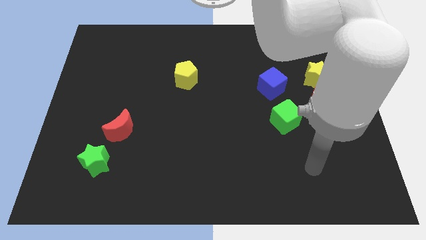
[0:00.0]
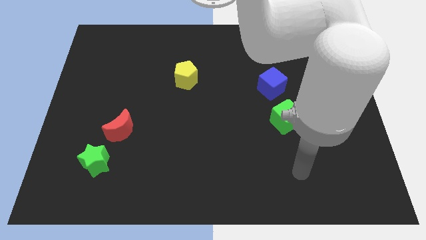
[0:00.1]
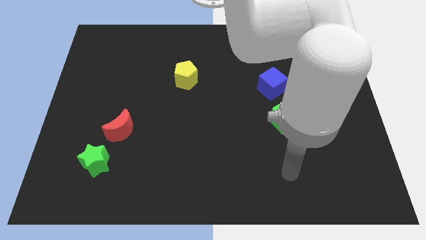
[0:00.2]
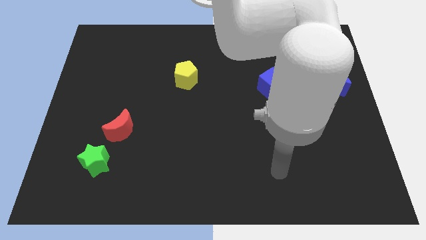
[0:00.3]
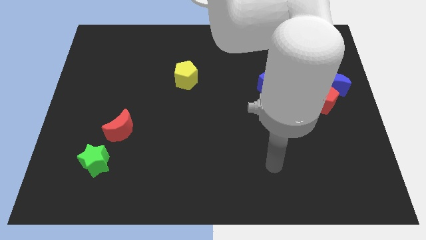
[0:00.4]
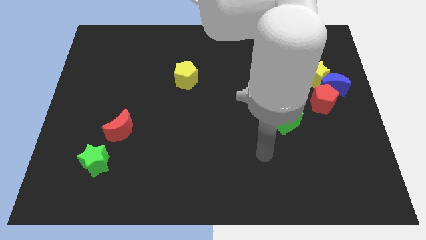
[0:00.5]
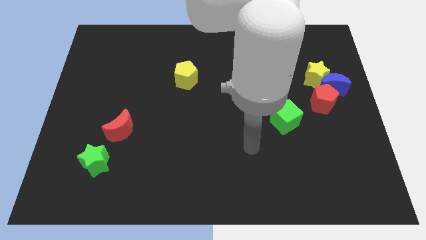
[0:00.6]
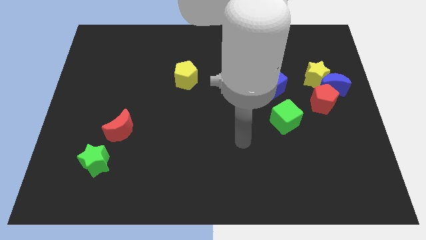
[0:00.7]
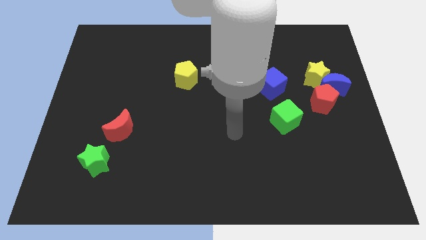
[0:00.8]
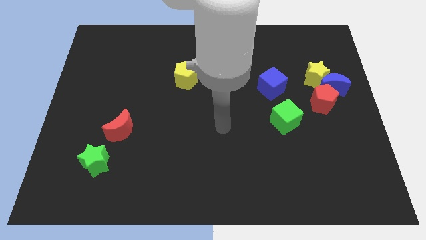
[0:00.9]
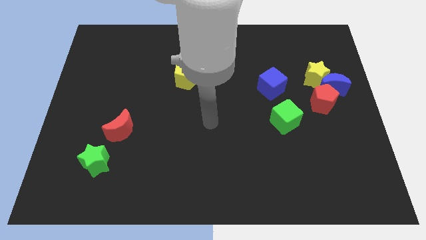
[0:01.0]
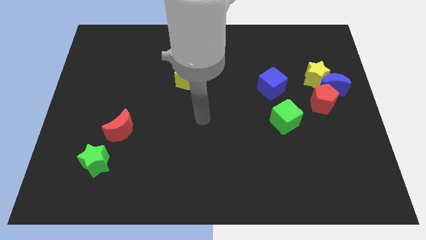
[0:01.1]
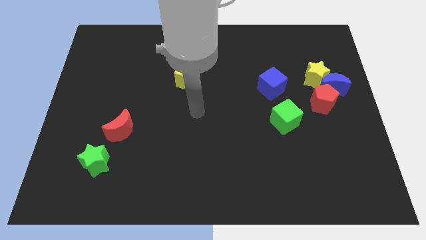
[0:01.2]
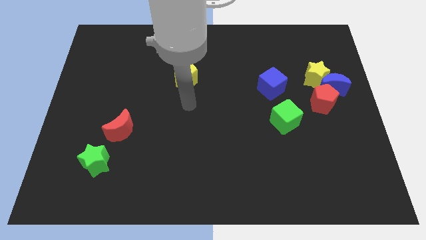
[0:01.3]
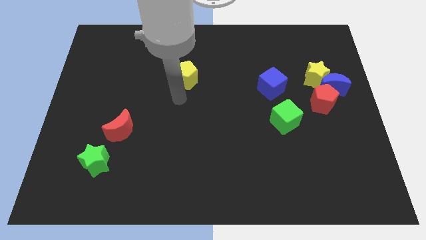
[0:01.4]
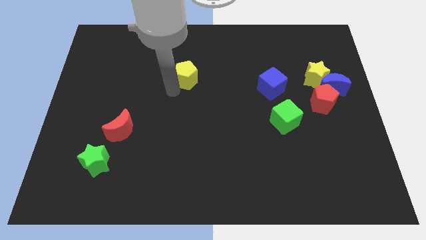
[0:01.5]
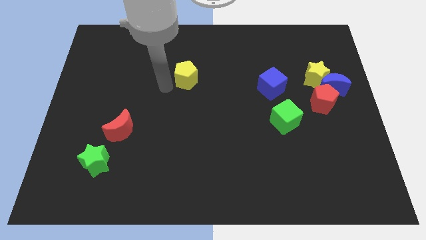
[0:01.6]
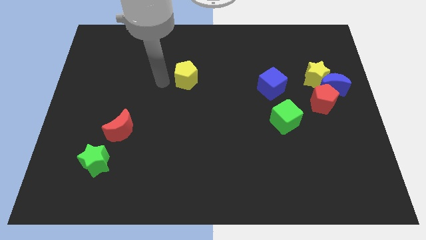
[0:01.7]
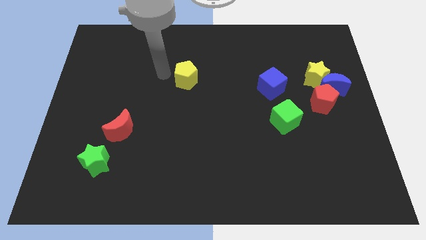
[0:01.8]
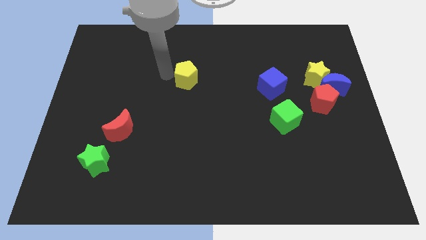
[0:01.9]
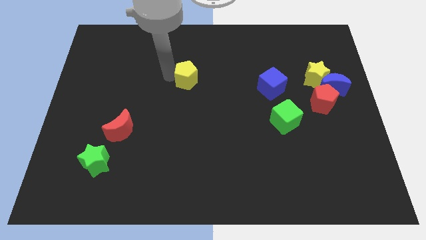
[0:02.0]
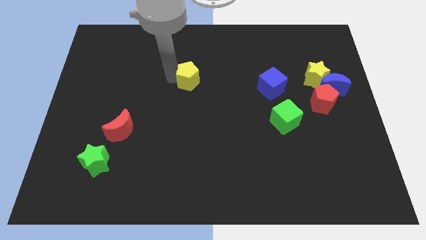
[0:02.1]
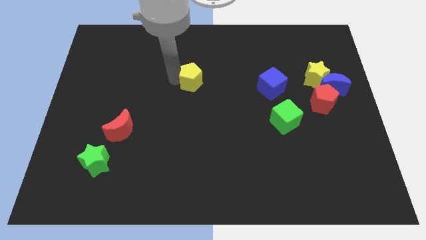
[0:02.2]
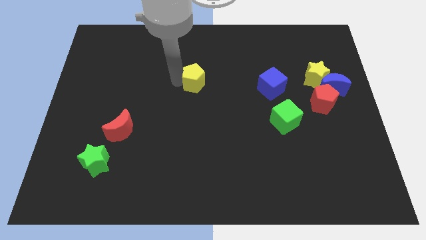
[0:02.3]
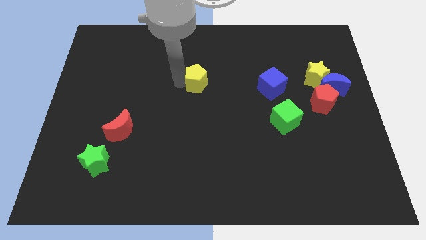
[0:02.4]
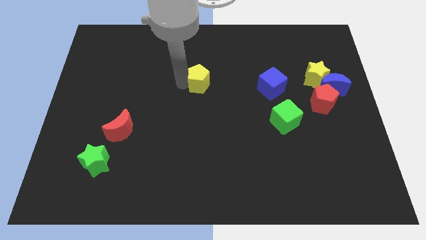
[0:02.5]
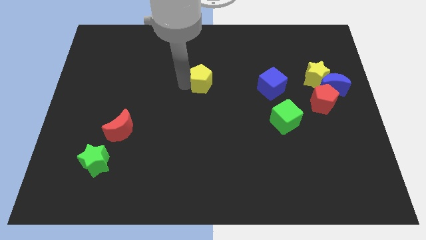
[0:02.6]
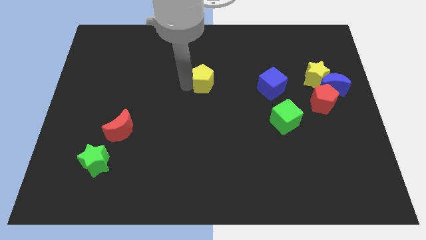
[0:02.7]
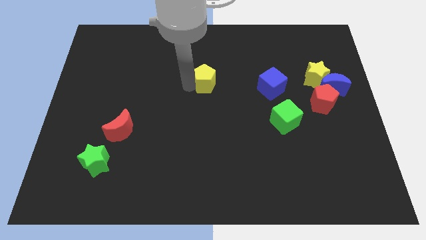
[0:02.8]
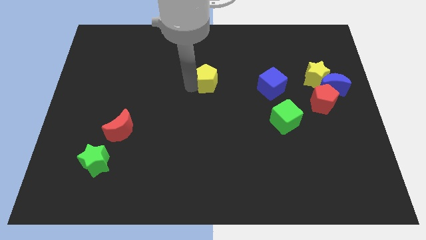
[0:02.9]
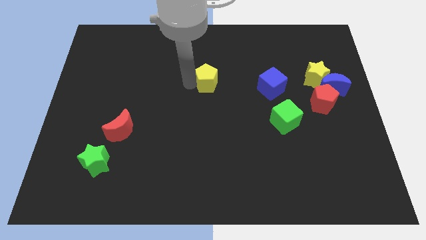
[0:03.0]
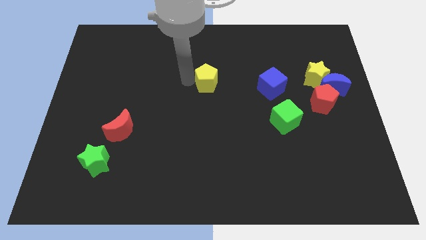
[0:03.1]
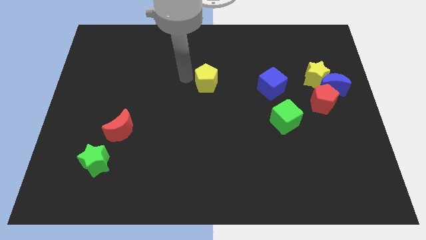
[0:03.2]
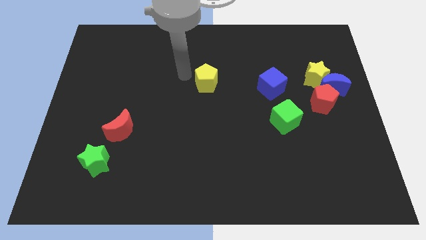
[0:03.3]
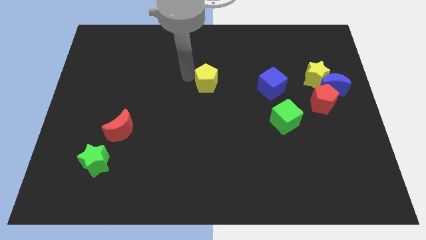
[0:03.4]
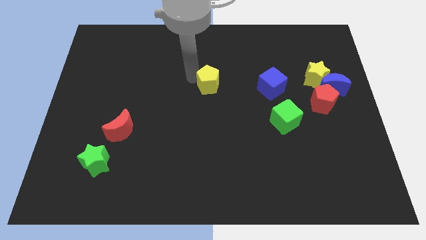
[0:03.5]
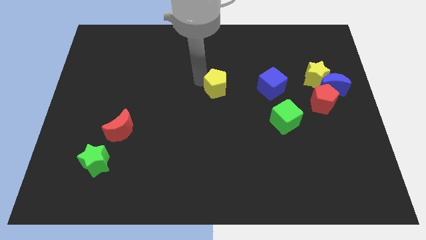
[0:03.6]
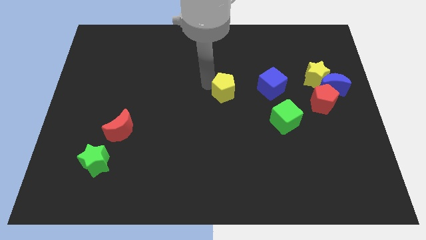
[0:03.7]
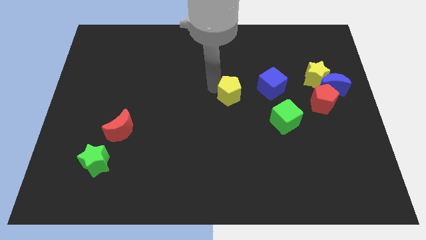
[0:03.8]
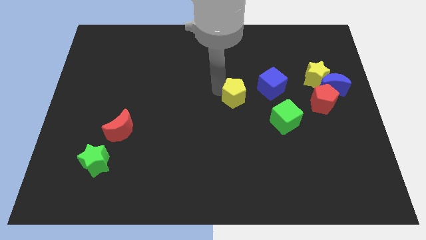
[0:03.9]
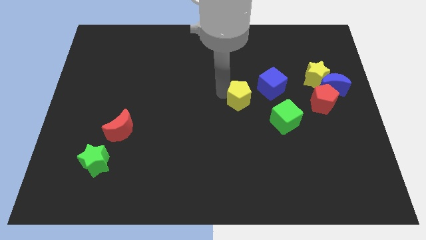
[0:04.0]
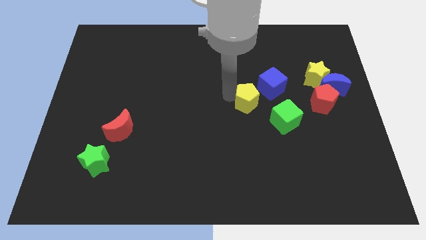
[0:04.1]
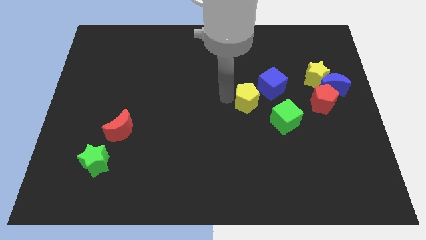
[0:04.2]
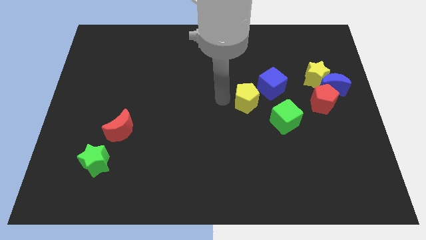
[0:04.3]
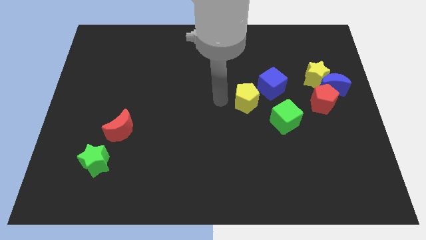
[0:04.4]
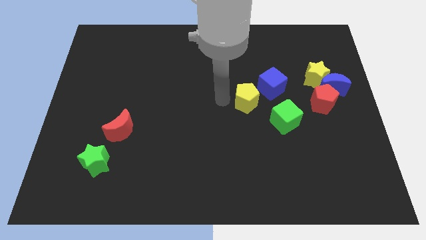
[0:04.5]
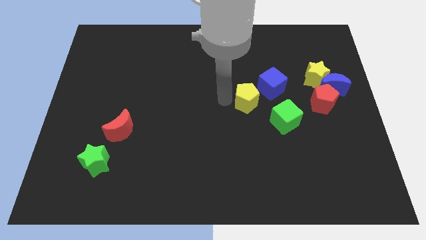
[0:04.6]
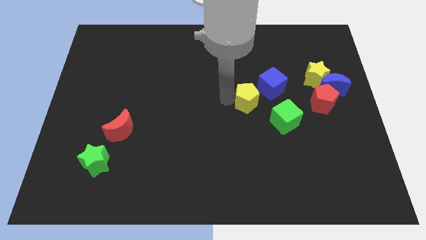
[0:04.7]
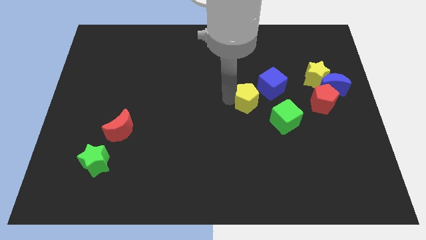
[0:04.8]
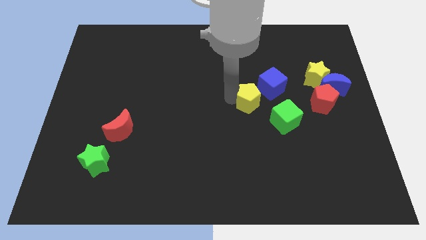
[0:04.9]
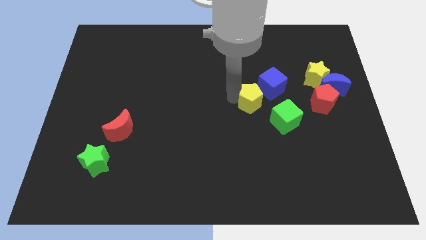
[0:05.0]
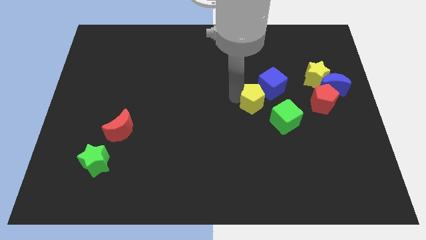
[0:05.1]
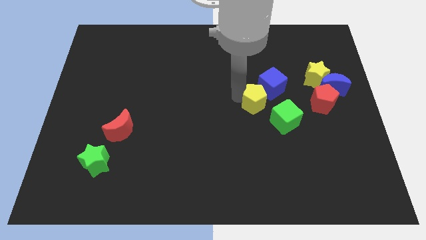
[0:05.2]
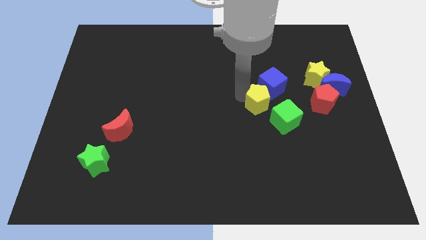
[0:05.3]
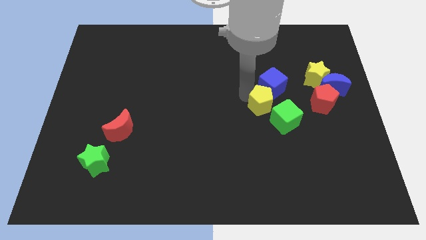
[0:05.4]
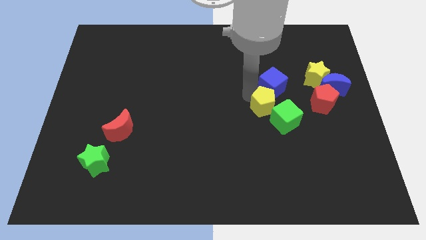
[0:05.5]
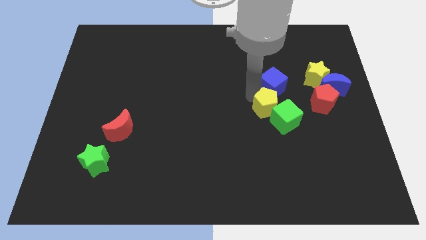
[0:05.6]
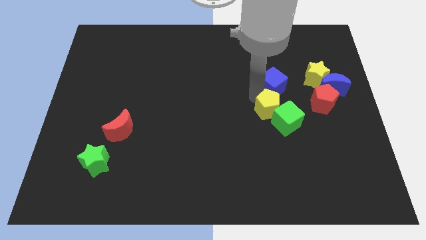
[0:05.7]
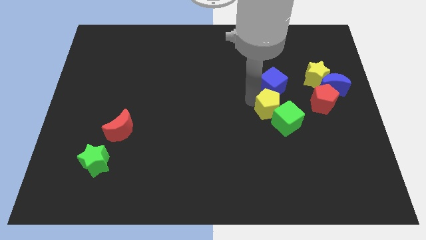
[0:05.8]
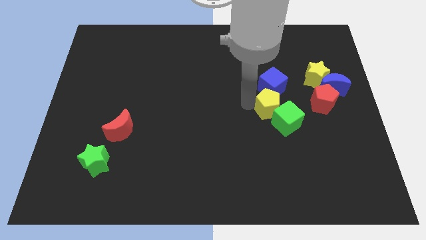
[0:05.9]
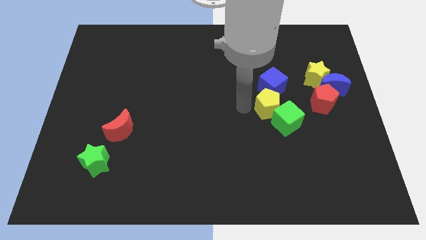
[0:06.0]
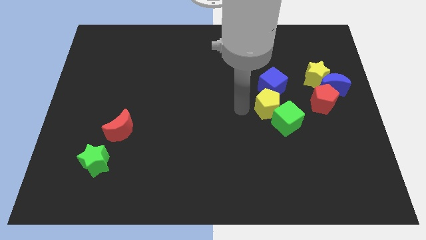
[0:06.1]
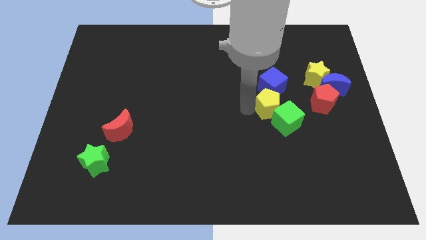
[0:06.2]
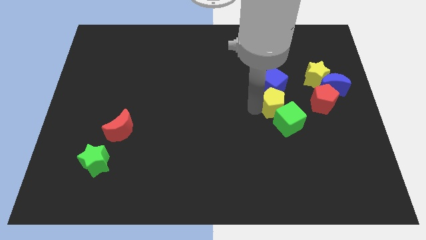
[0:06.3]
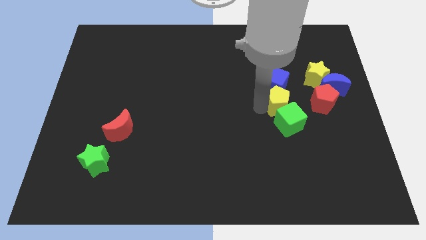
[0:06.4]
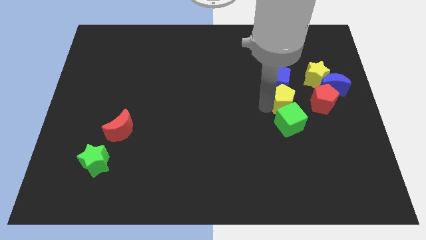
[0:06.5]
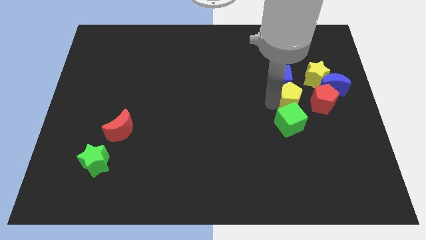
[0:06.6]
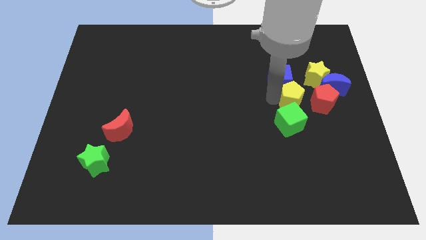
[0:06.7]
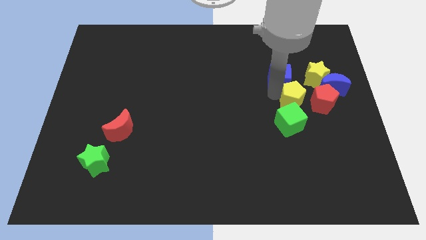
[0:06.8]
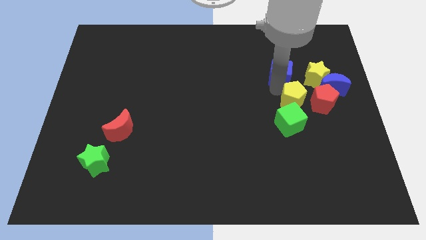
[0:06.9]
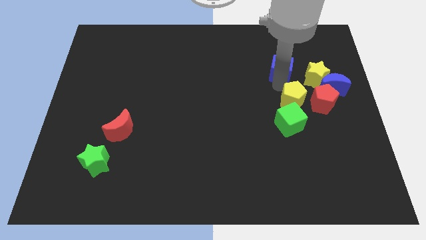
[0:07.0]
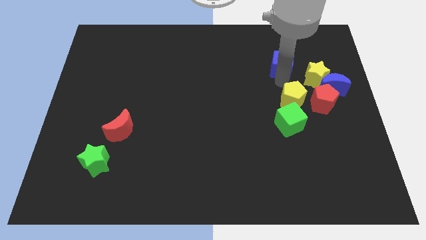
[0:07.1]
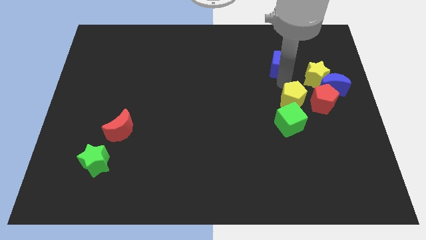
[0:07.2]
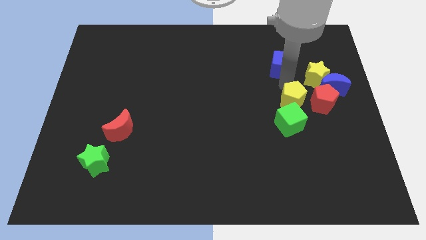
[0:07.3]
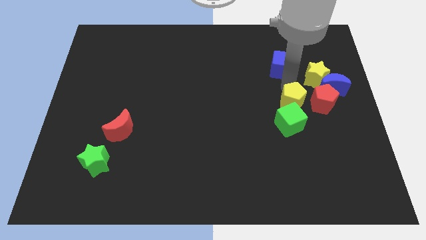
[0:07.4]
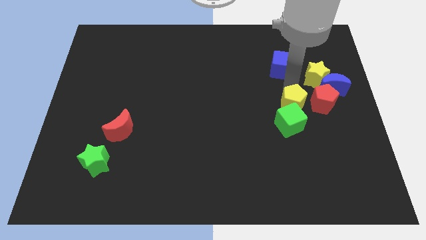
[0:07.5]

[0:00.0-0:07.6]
put the yellow pentagon to the bottom left of the red pentagon
